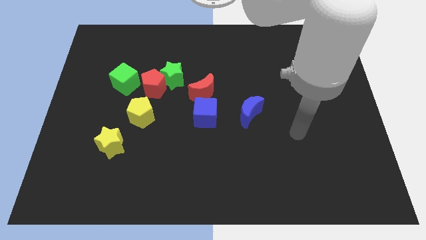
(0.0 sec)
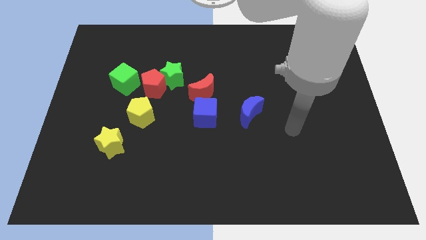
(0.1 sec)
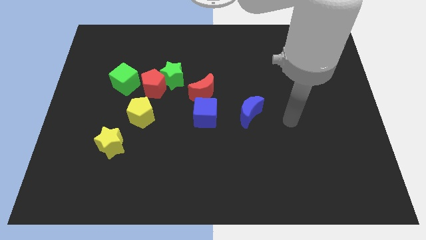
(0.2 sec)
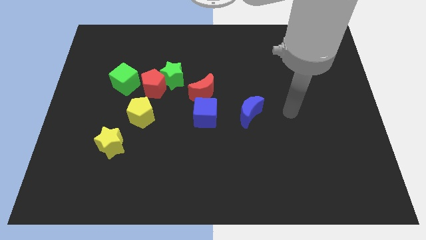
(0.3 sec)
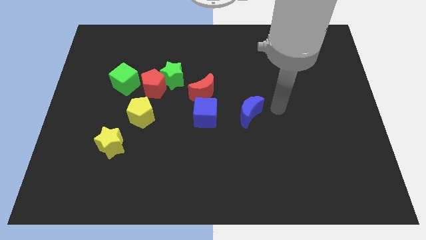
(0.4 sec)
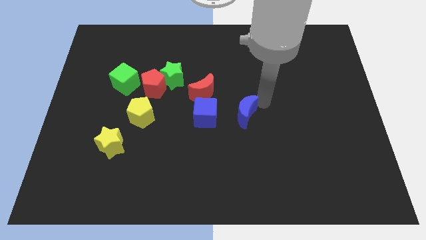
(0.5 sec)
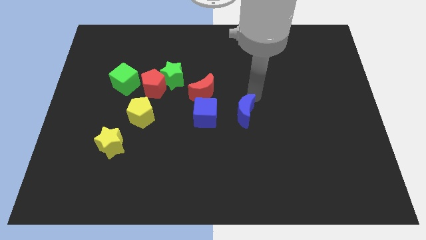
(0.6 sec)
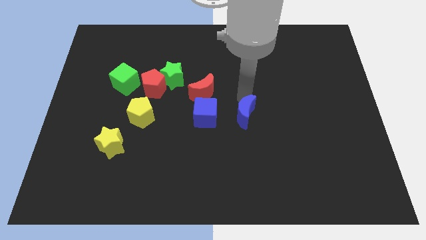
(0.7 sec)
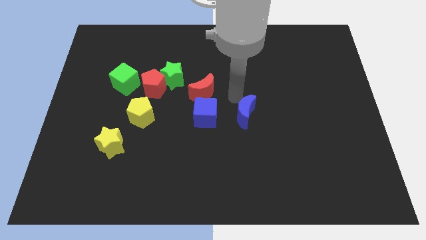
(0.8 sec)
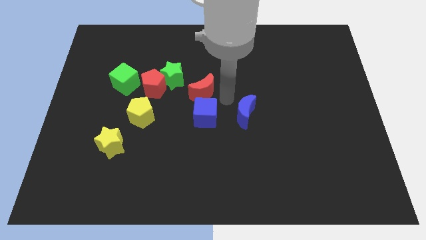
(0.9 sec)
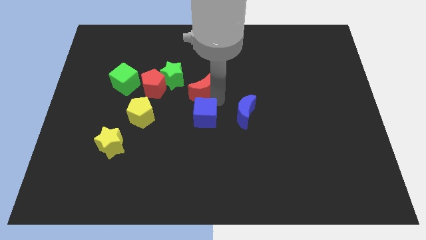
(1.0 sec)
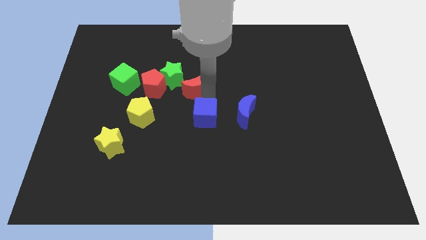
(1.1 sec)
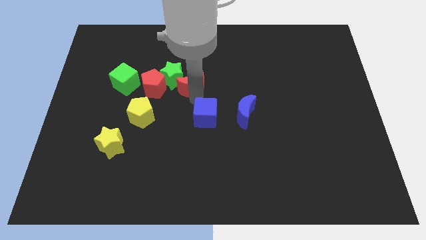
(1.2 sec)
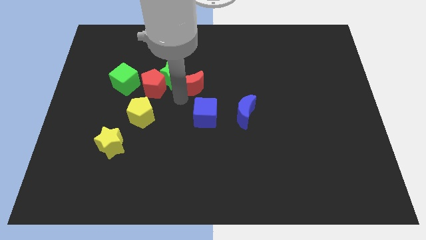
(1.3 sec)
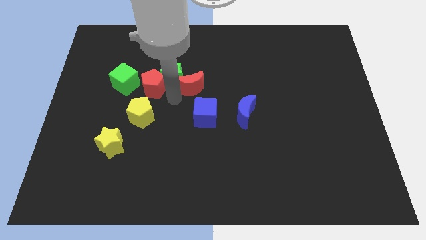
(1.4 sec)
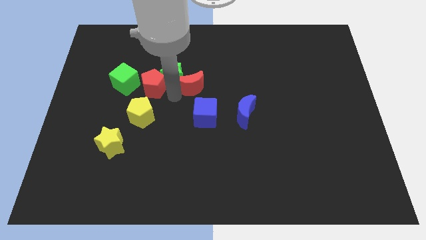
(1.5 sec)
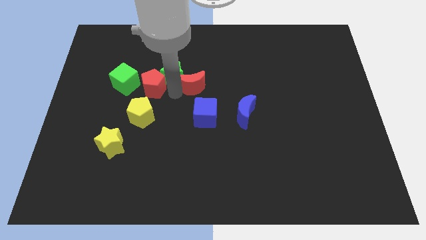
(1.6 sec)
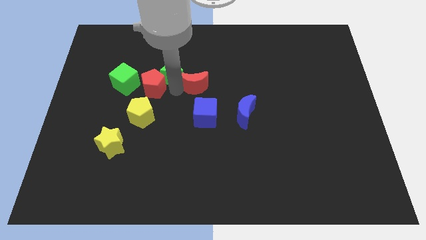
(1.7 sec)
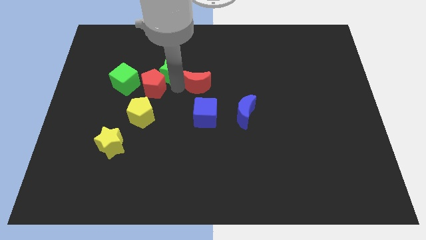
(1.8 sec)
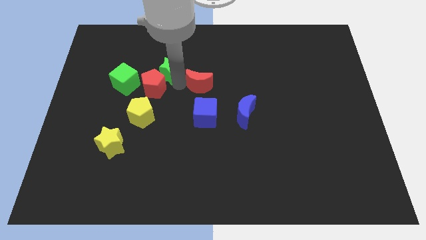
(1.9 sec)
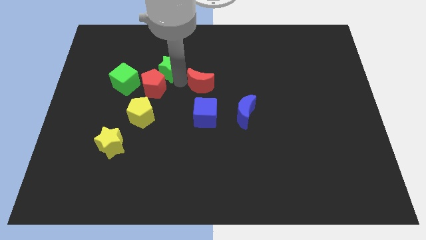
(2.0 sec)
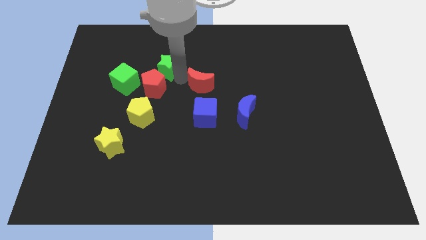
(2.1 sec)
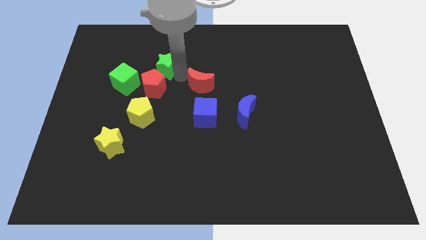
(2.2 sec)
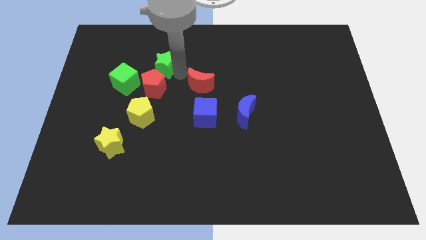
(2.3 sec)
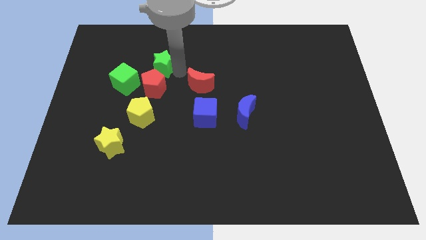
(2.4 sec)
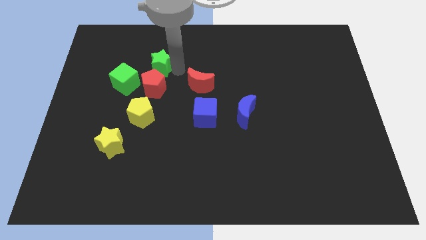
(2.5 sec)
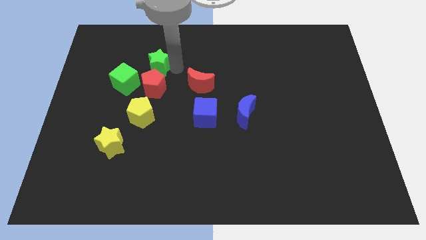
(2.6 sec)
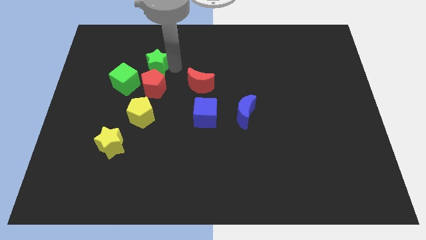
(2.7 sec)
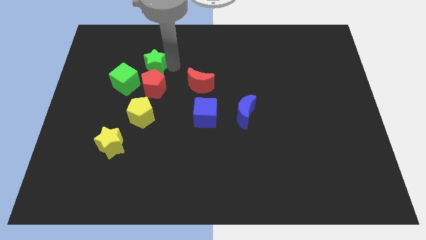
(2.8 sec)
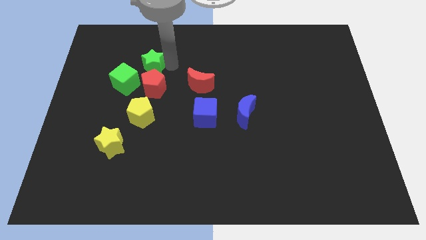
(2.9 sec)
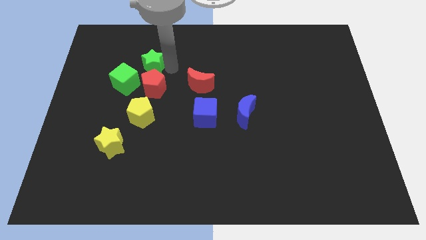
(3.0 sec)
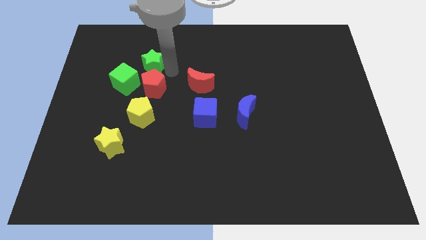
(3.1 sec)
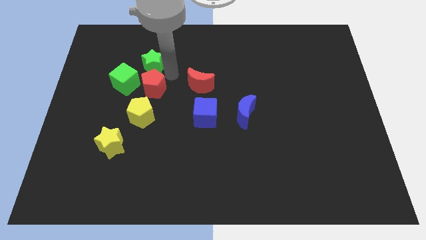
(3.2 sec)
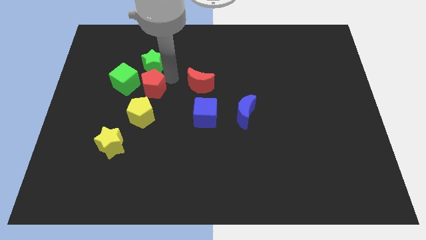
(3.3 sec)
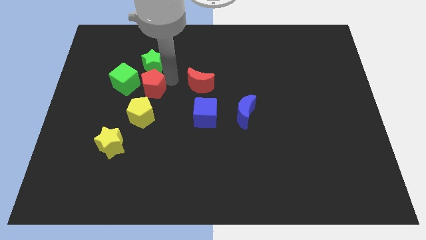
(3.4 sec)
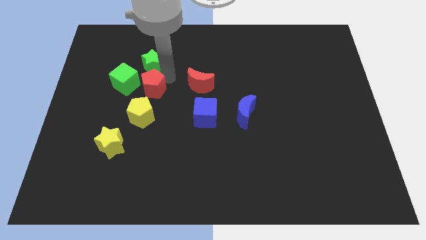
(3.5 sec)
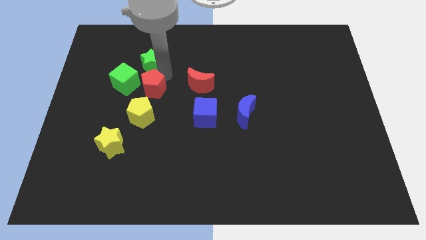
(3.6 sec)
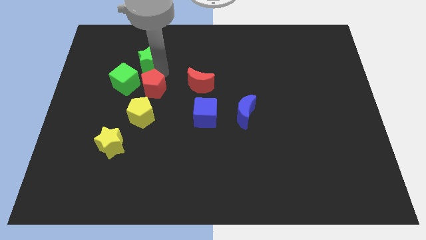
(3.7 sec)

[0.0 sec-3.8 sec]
move the green star away from the red pentagon and red moon

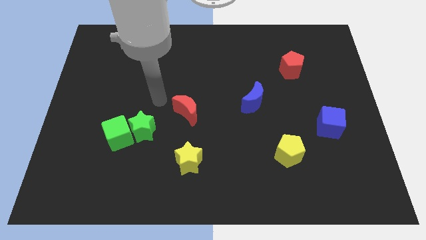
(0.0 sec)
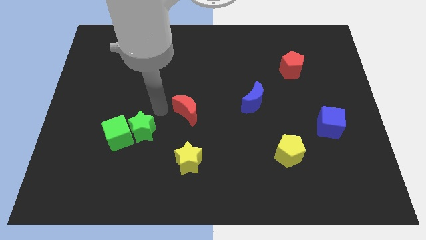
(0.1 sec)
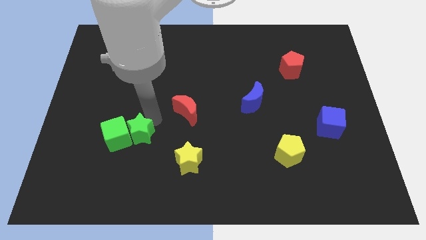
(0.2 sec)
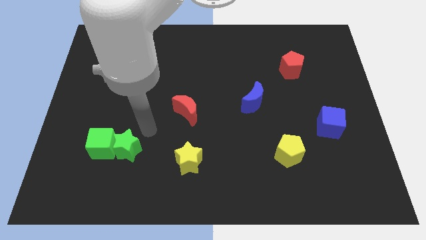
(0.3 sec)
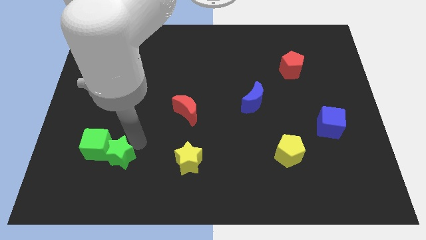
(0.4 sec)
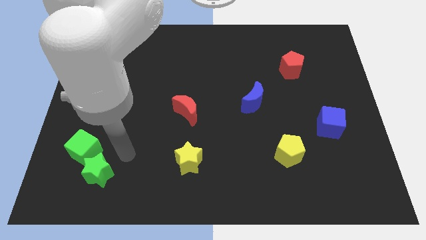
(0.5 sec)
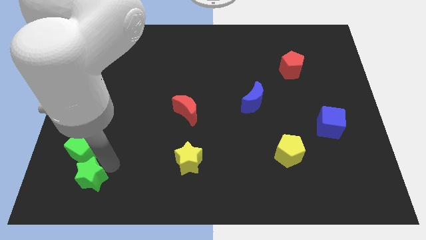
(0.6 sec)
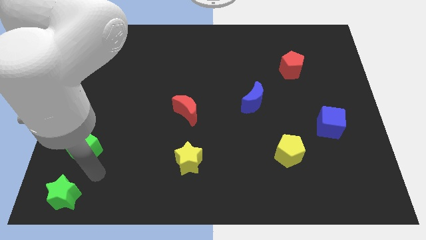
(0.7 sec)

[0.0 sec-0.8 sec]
move the green cube away from the green star

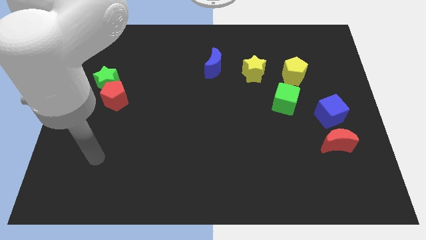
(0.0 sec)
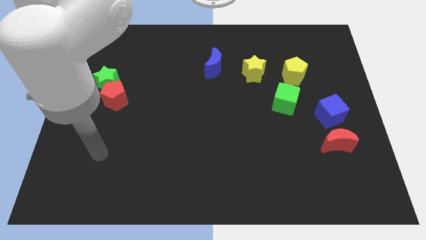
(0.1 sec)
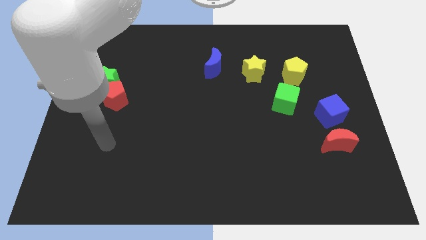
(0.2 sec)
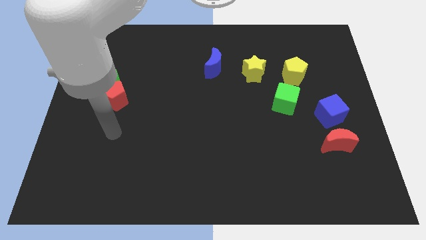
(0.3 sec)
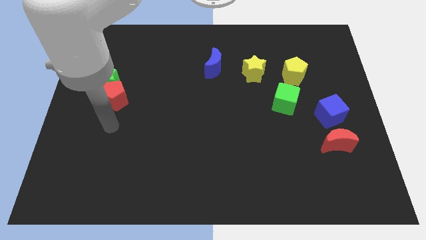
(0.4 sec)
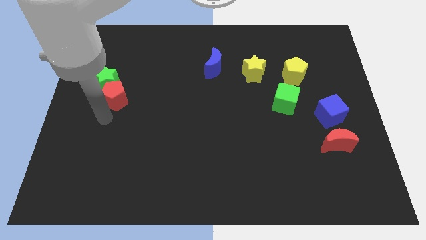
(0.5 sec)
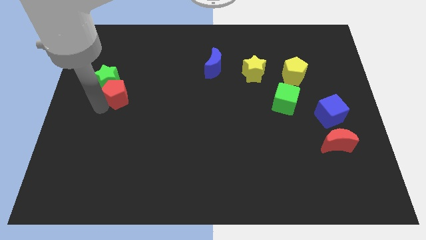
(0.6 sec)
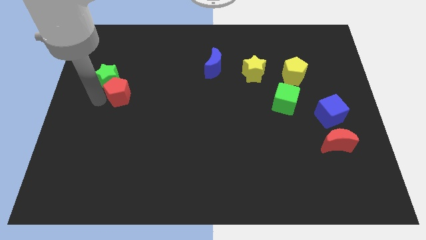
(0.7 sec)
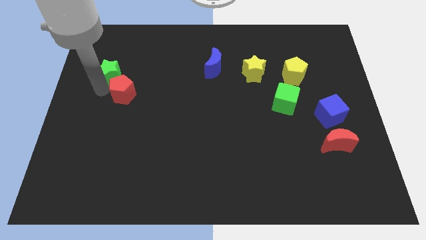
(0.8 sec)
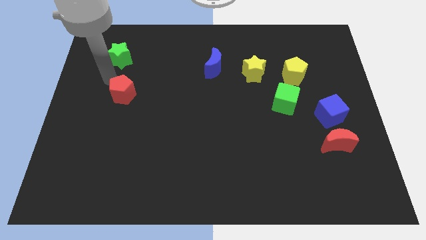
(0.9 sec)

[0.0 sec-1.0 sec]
pull the red pentagon apart from the green star

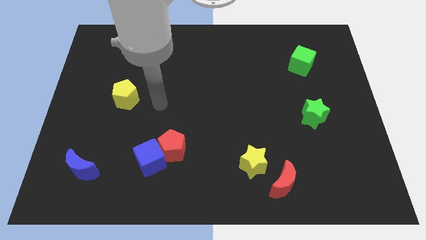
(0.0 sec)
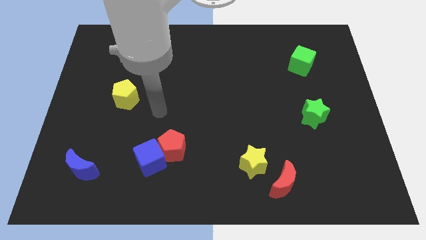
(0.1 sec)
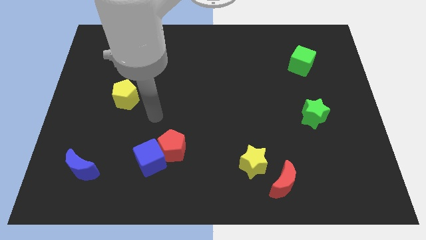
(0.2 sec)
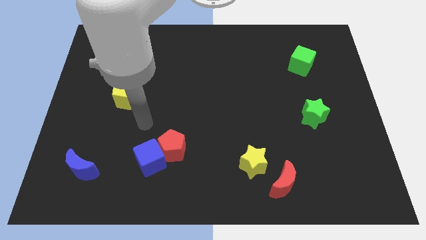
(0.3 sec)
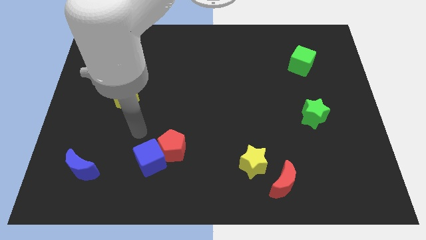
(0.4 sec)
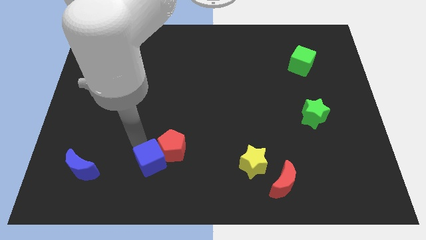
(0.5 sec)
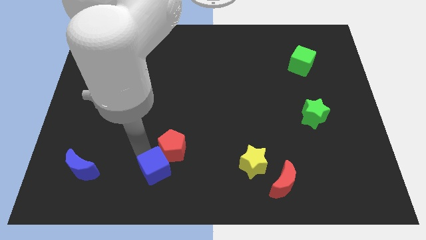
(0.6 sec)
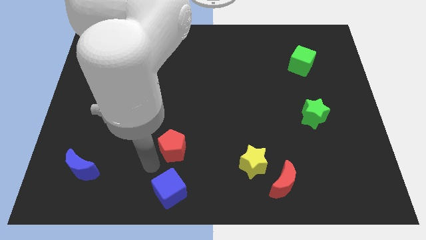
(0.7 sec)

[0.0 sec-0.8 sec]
pull the red pentagon apart from the blue cube

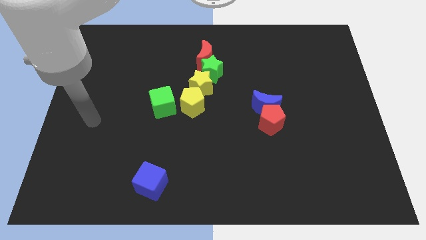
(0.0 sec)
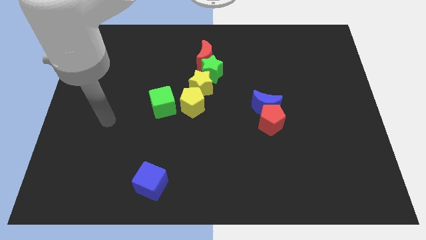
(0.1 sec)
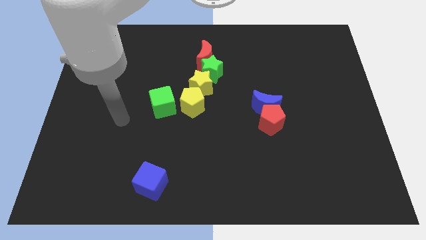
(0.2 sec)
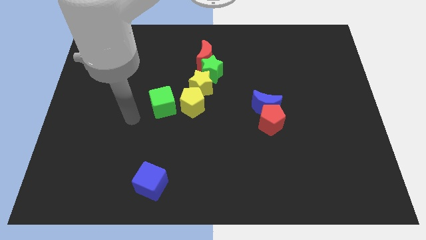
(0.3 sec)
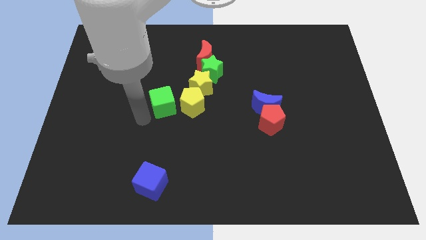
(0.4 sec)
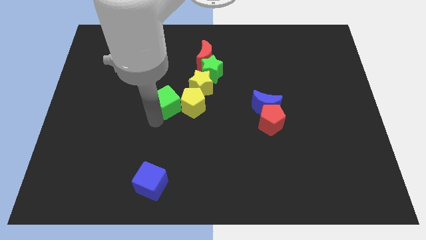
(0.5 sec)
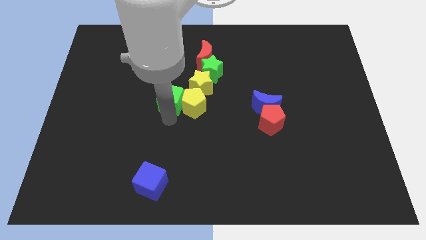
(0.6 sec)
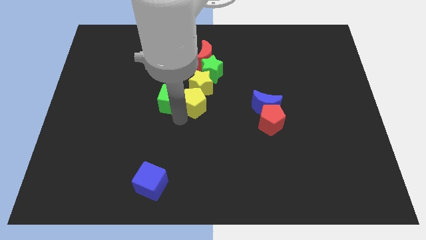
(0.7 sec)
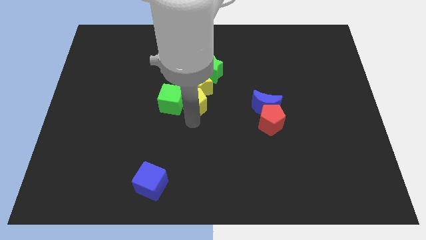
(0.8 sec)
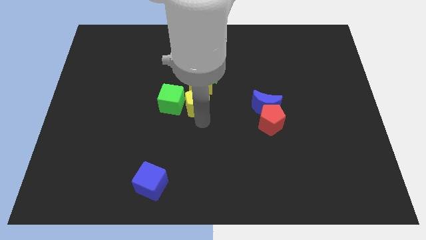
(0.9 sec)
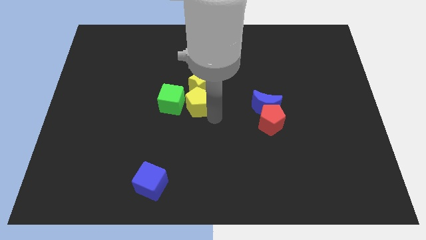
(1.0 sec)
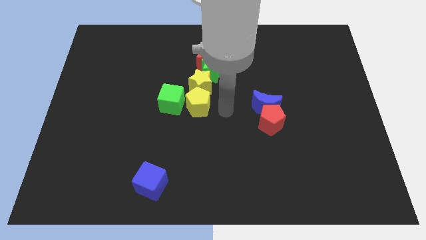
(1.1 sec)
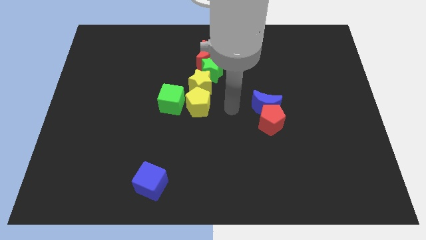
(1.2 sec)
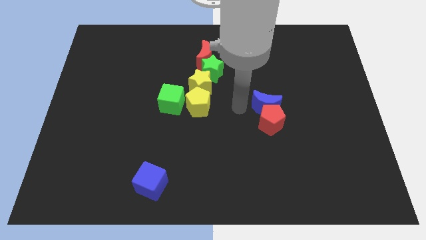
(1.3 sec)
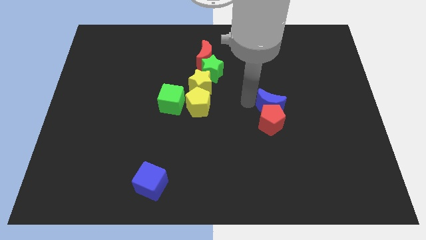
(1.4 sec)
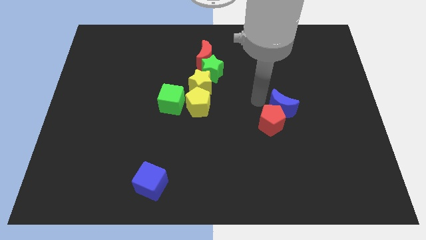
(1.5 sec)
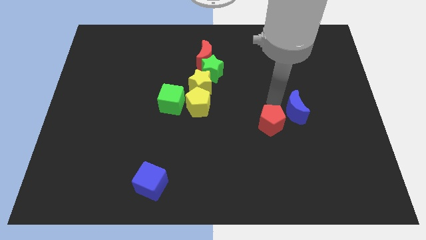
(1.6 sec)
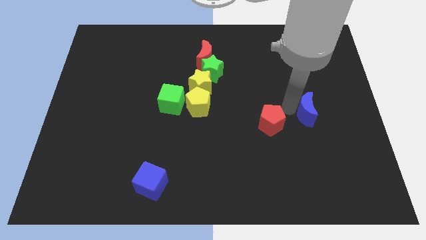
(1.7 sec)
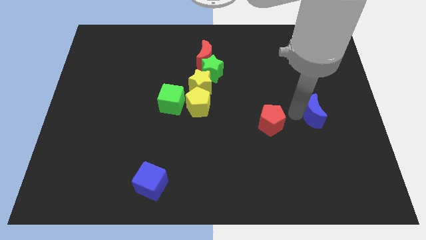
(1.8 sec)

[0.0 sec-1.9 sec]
pull the red pentagon apart from the blue moon

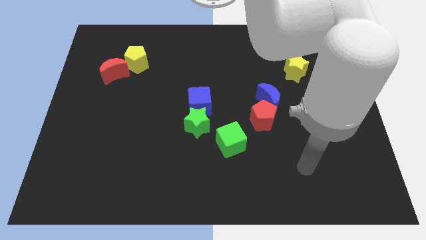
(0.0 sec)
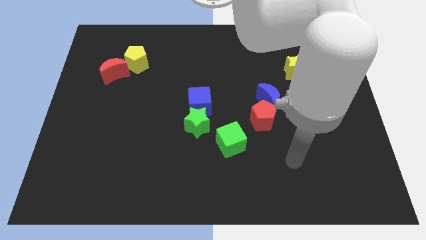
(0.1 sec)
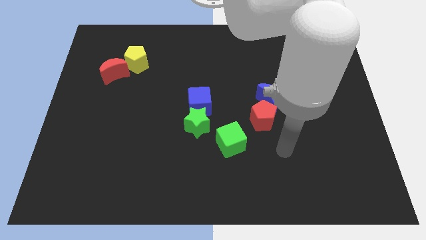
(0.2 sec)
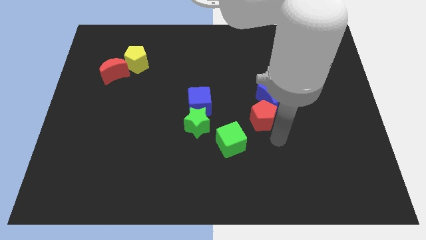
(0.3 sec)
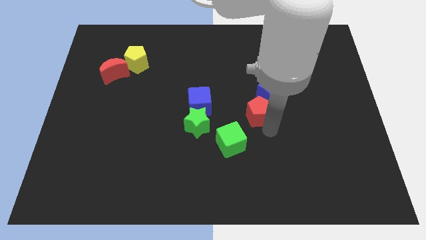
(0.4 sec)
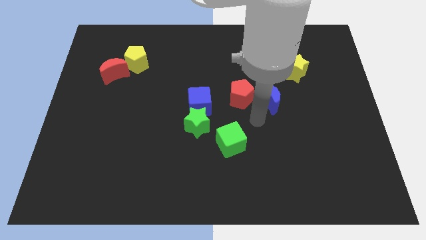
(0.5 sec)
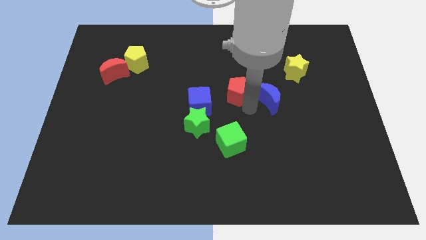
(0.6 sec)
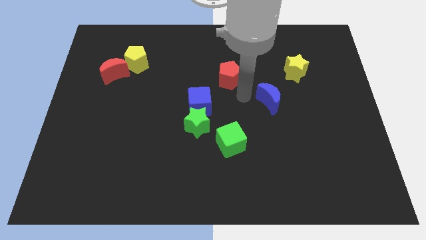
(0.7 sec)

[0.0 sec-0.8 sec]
separate the blue moon from the red pentagon
